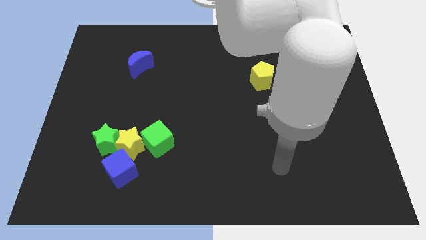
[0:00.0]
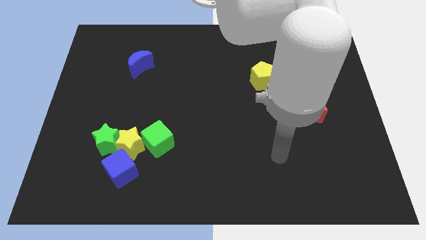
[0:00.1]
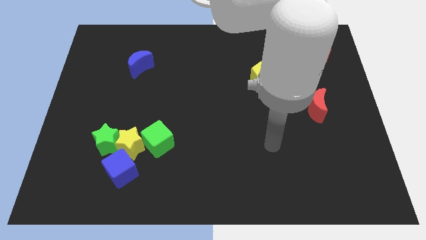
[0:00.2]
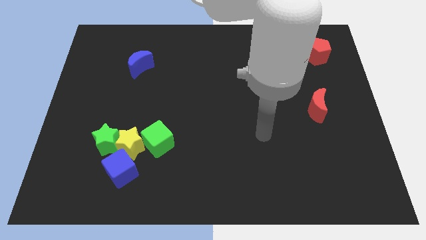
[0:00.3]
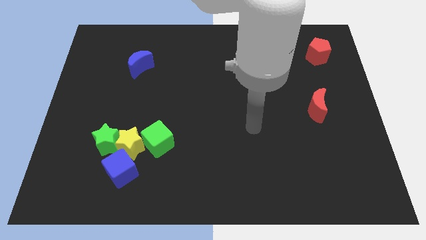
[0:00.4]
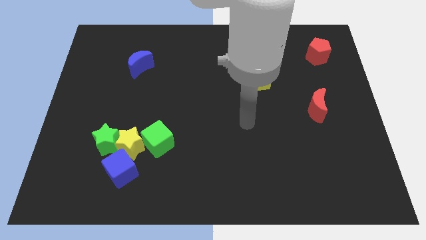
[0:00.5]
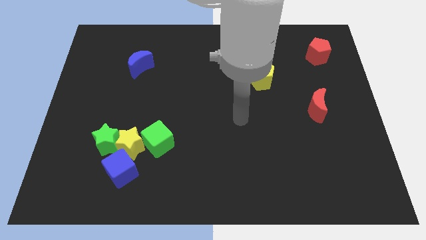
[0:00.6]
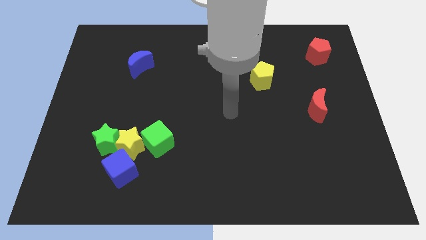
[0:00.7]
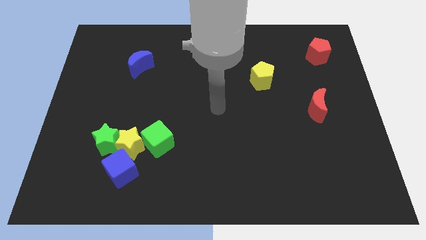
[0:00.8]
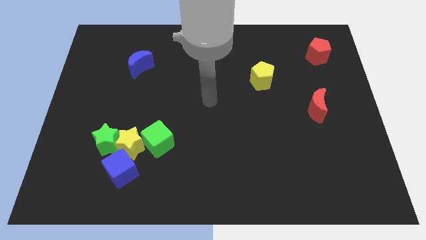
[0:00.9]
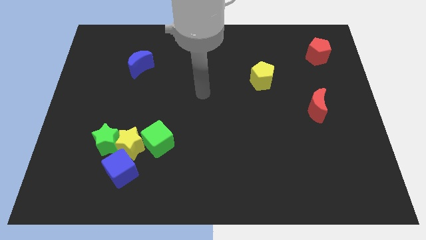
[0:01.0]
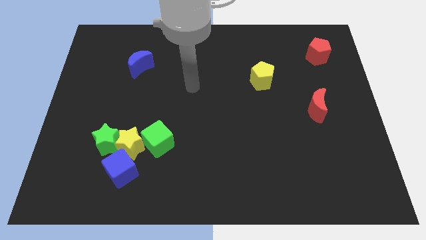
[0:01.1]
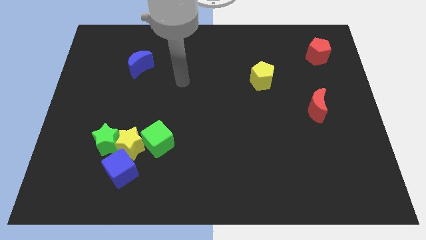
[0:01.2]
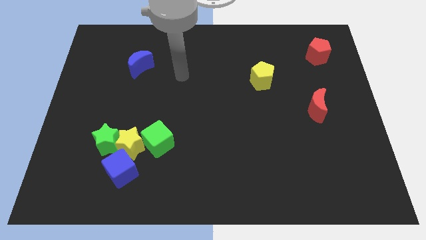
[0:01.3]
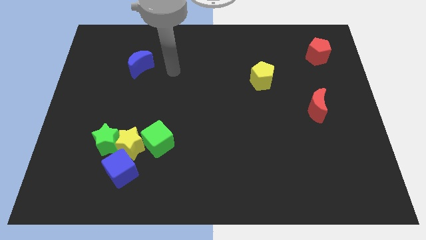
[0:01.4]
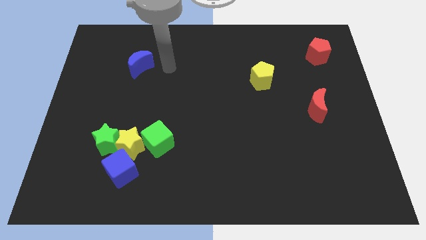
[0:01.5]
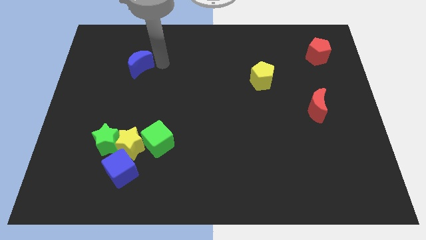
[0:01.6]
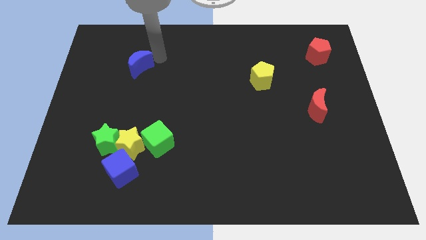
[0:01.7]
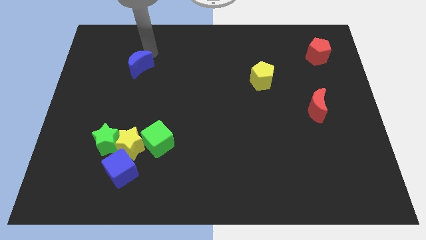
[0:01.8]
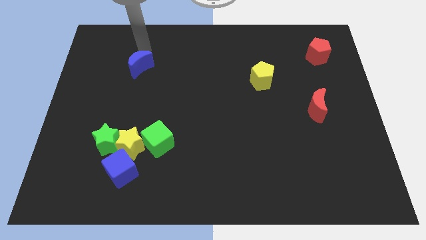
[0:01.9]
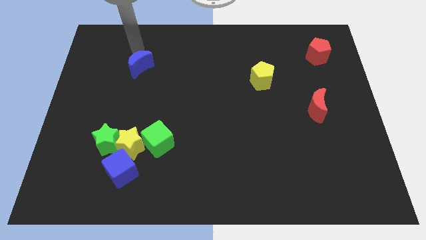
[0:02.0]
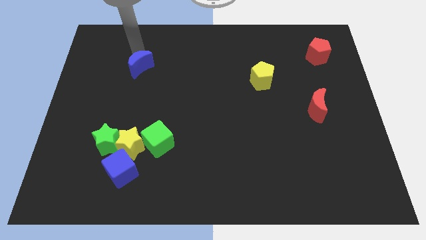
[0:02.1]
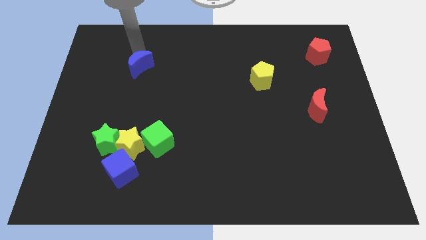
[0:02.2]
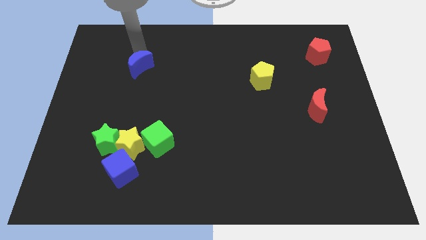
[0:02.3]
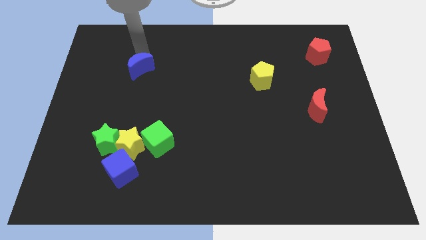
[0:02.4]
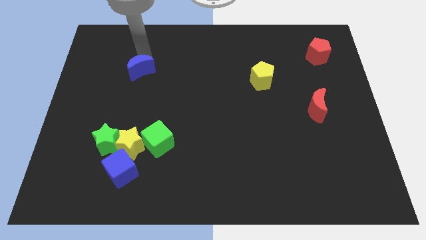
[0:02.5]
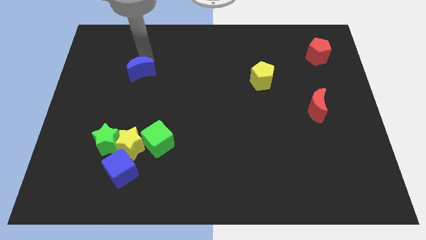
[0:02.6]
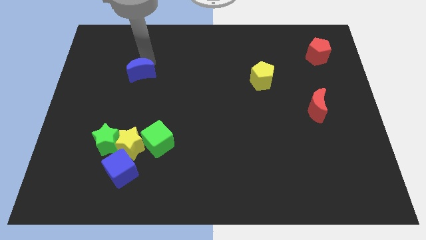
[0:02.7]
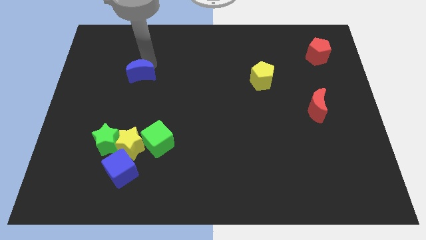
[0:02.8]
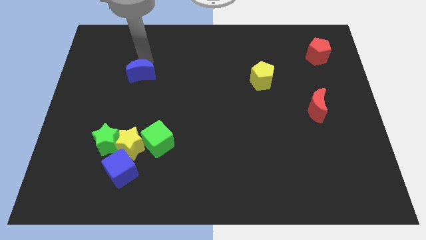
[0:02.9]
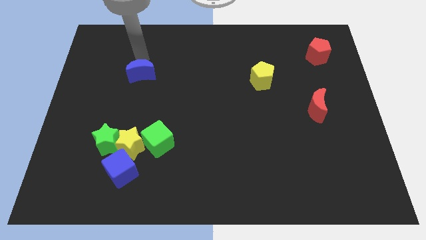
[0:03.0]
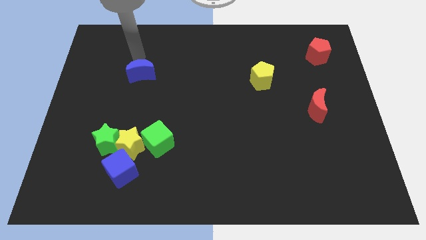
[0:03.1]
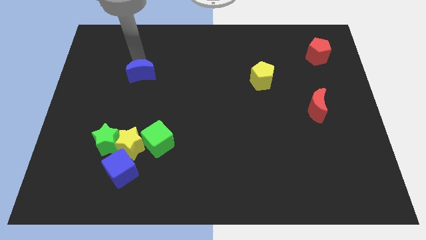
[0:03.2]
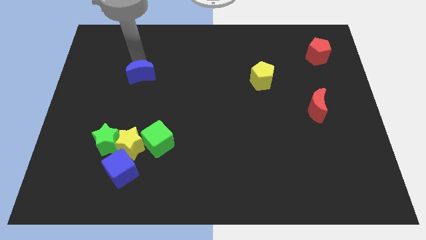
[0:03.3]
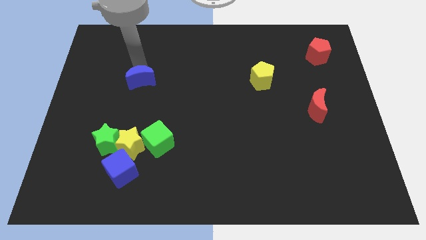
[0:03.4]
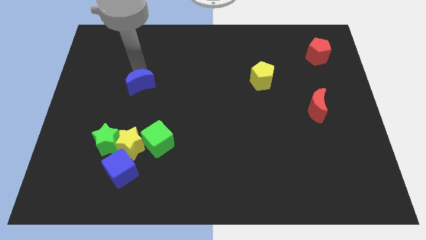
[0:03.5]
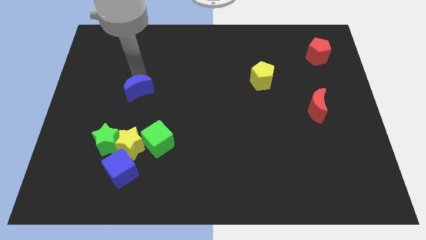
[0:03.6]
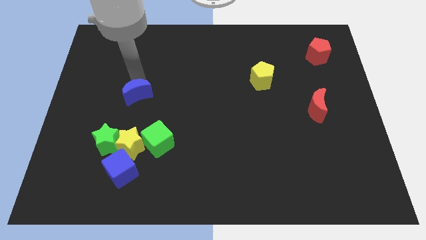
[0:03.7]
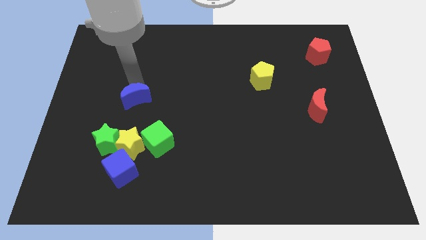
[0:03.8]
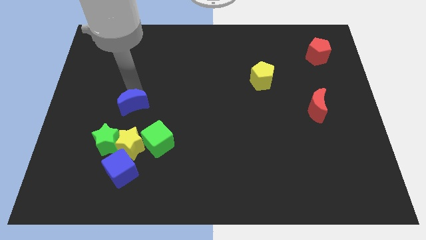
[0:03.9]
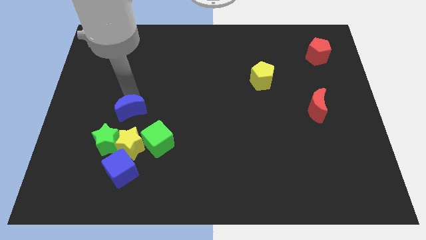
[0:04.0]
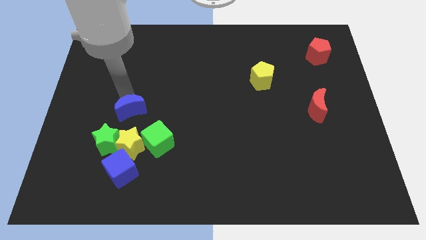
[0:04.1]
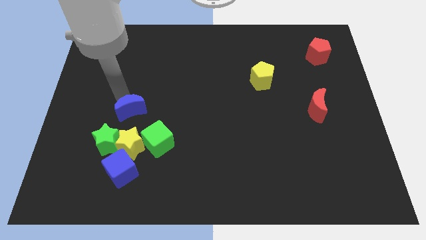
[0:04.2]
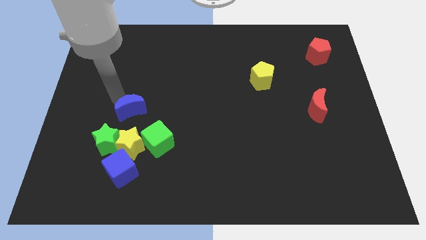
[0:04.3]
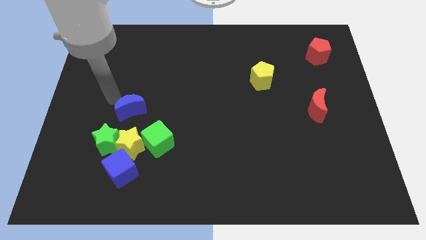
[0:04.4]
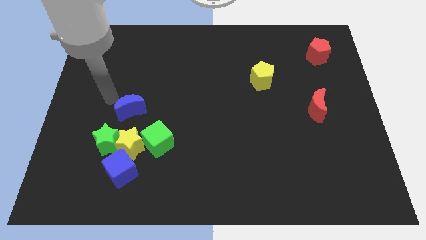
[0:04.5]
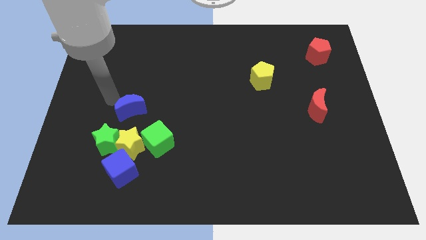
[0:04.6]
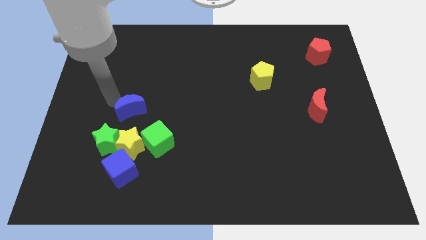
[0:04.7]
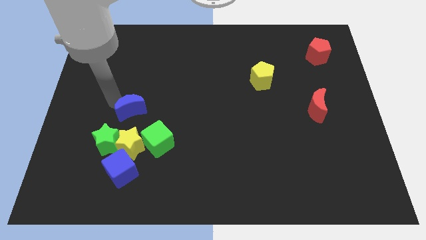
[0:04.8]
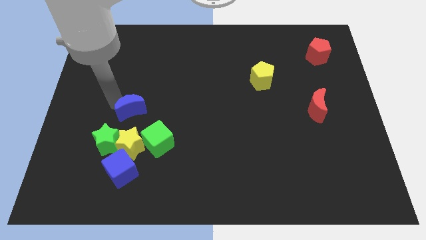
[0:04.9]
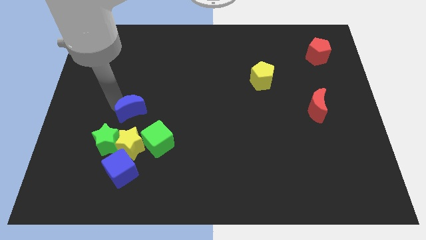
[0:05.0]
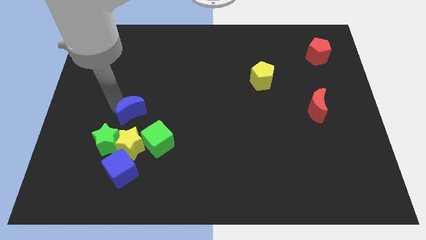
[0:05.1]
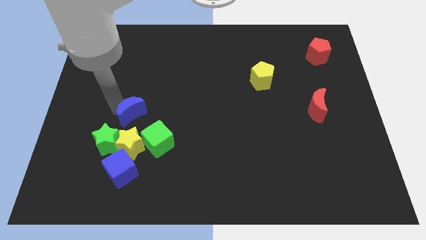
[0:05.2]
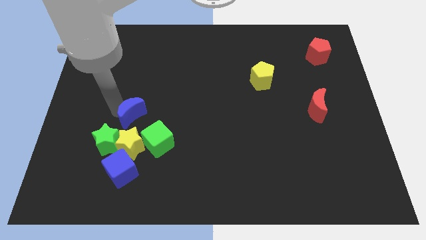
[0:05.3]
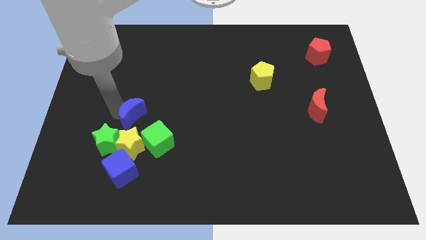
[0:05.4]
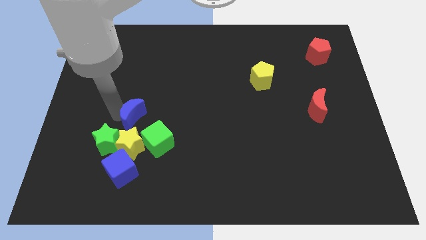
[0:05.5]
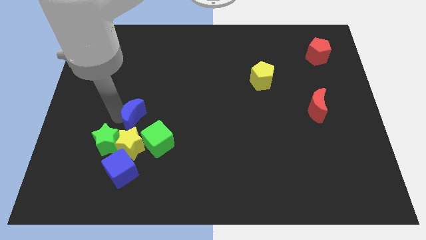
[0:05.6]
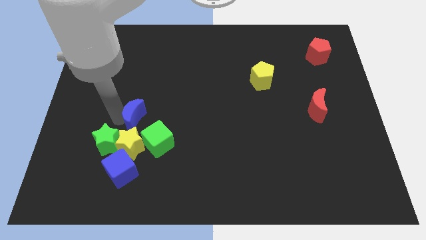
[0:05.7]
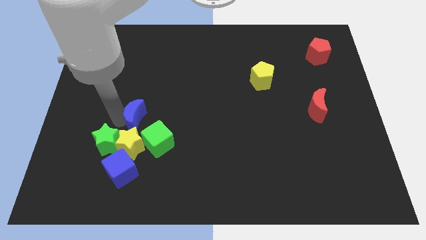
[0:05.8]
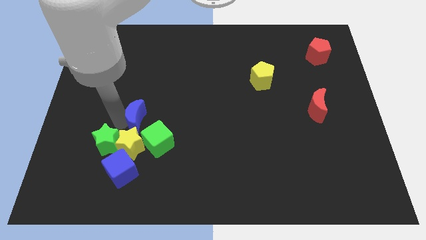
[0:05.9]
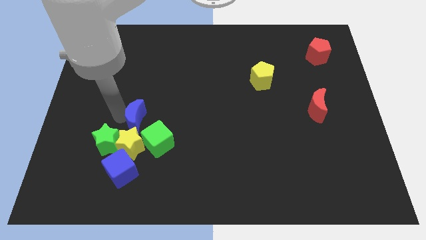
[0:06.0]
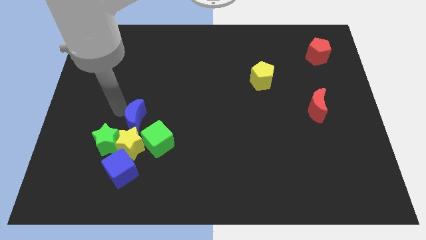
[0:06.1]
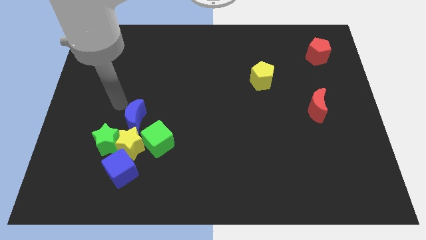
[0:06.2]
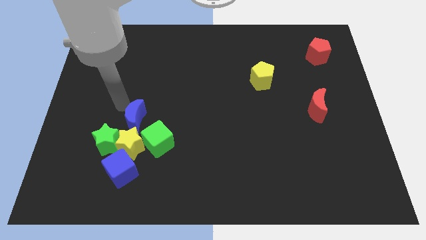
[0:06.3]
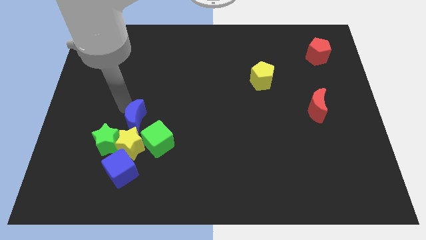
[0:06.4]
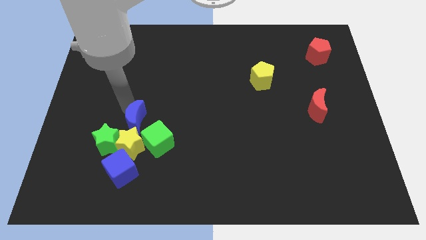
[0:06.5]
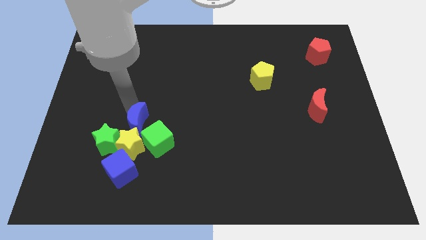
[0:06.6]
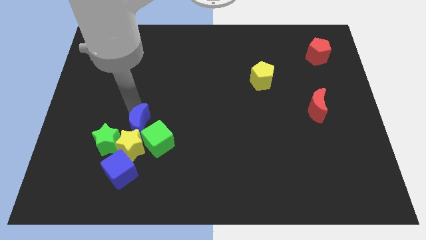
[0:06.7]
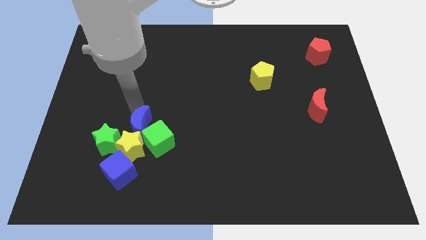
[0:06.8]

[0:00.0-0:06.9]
slide the blue moon close to the green cube

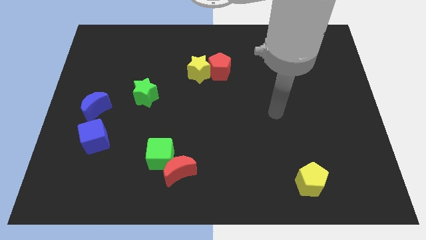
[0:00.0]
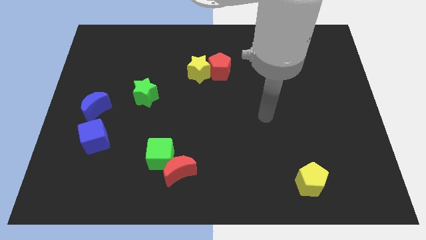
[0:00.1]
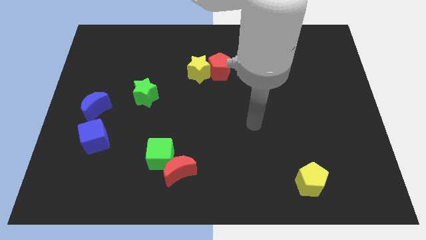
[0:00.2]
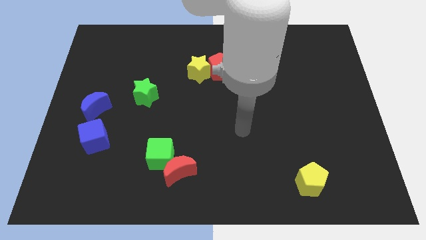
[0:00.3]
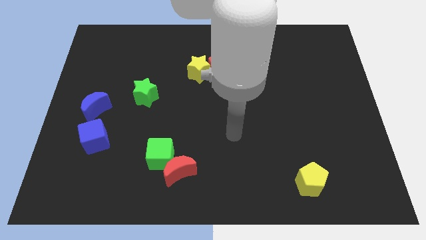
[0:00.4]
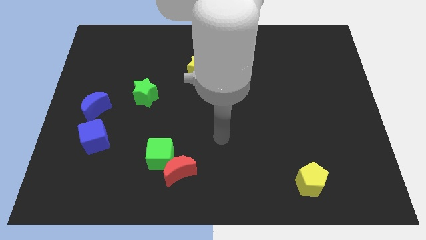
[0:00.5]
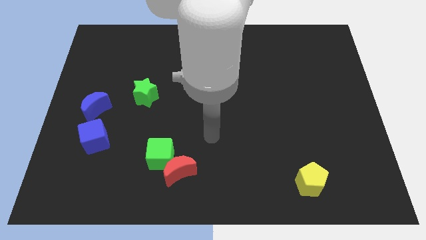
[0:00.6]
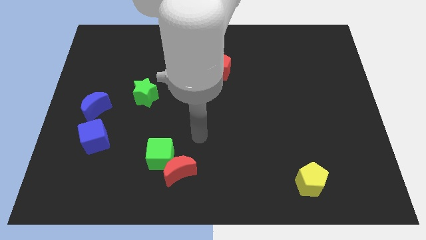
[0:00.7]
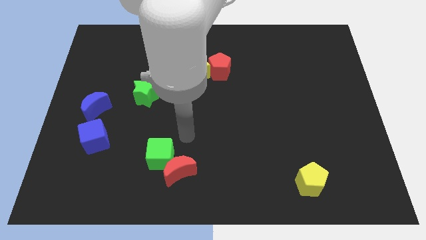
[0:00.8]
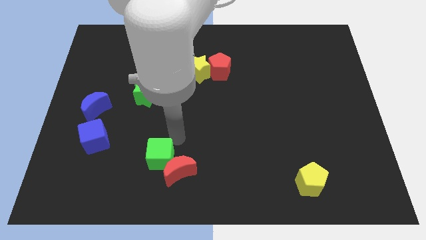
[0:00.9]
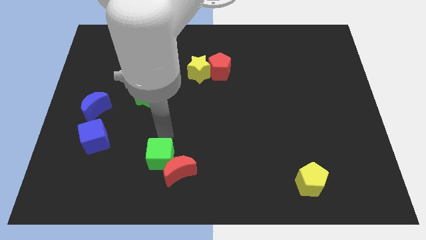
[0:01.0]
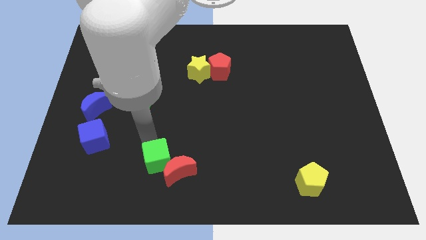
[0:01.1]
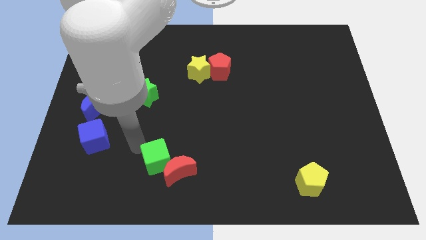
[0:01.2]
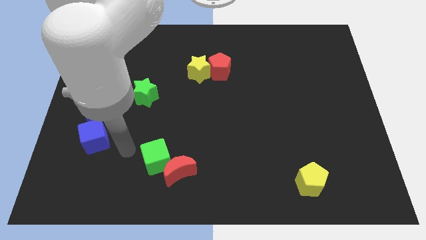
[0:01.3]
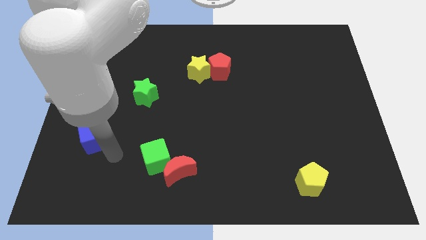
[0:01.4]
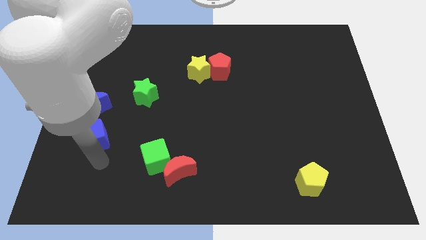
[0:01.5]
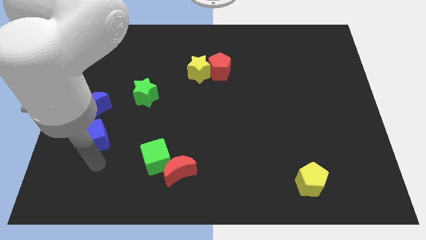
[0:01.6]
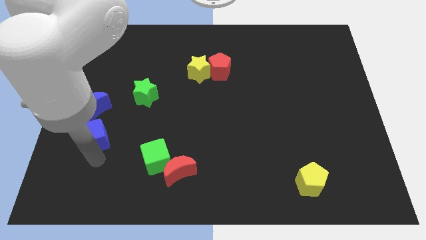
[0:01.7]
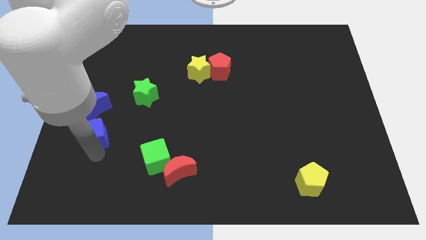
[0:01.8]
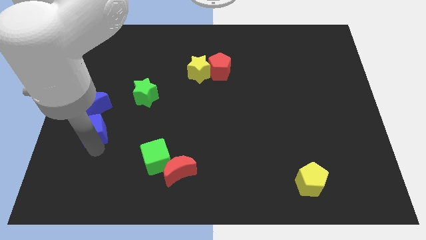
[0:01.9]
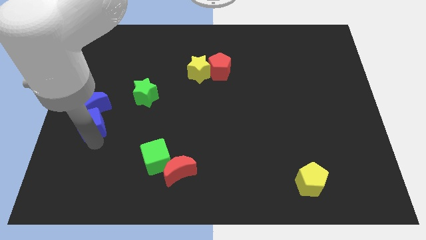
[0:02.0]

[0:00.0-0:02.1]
put the blue cube close to the blue moon
